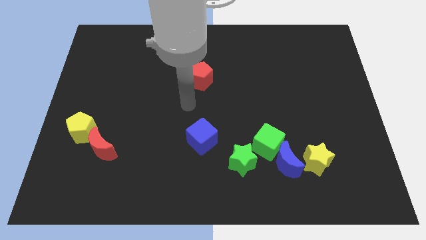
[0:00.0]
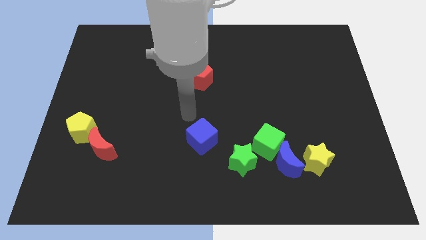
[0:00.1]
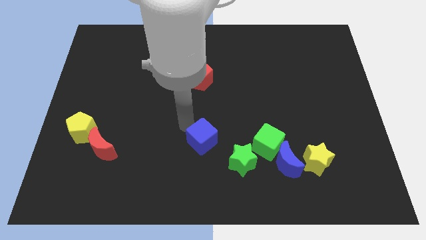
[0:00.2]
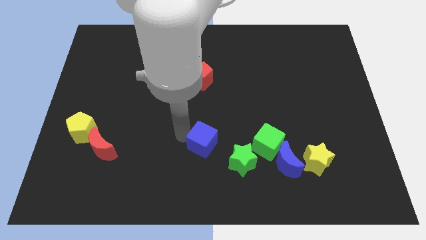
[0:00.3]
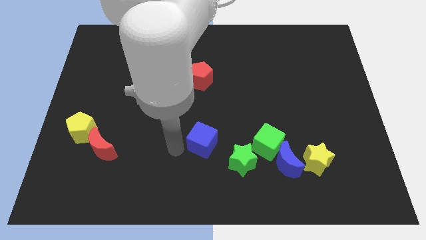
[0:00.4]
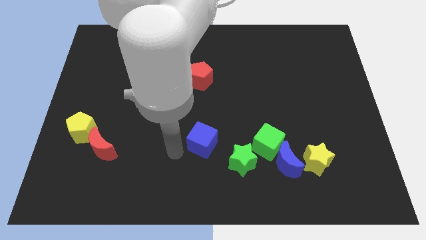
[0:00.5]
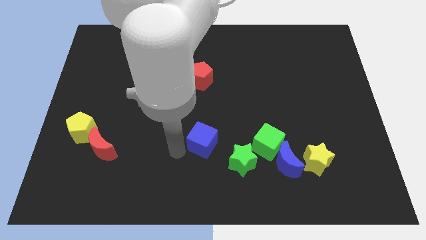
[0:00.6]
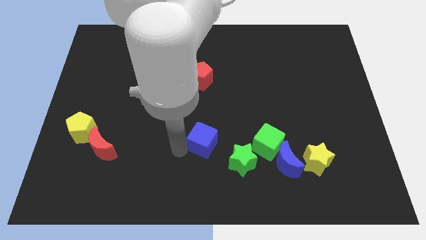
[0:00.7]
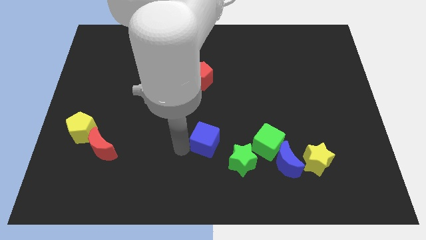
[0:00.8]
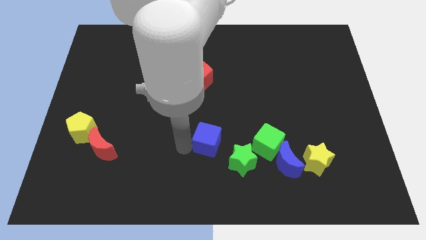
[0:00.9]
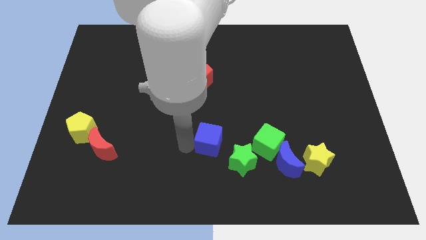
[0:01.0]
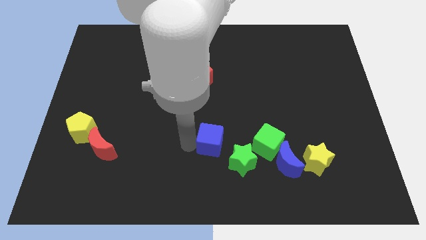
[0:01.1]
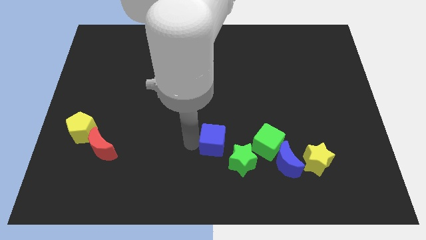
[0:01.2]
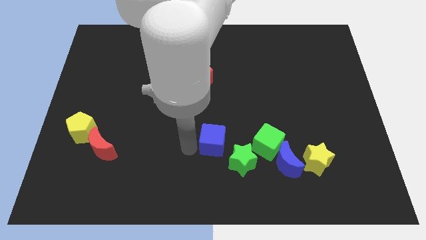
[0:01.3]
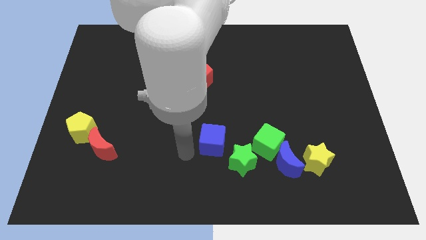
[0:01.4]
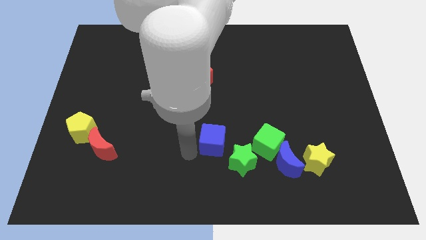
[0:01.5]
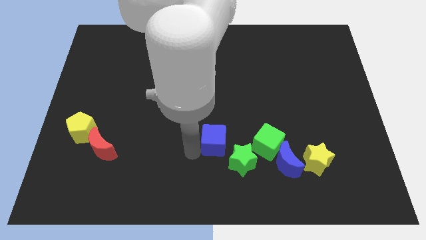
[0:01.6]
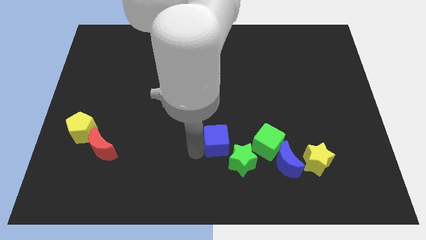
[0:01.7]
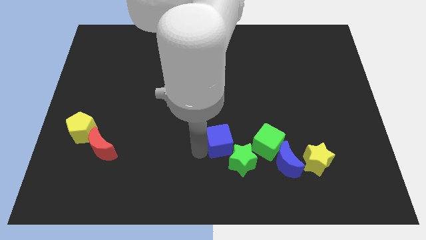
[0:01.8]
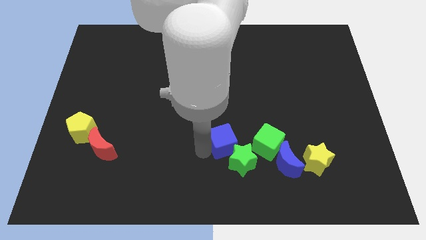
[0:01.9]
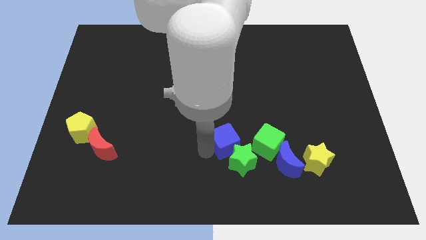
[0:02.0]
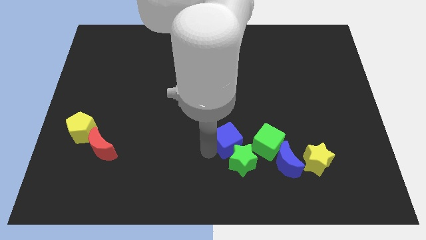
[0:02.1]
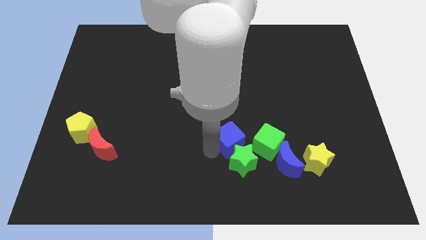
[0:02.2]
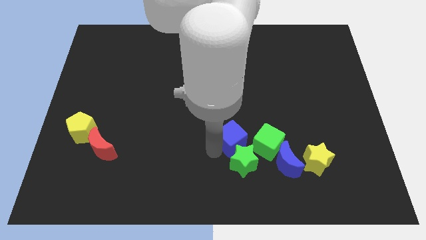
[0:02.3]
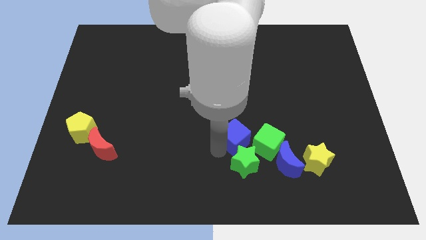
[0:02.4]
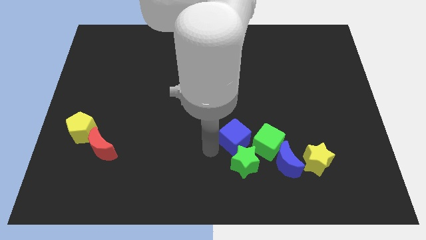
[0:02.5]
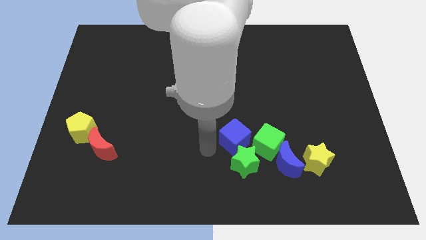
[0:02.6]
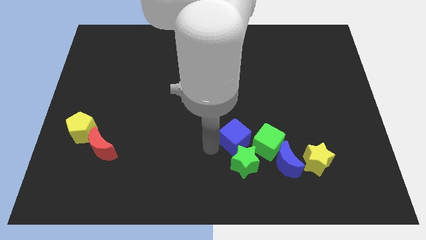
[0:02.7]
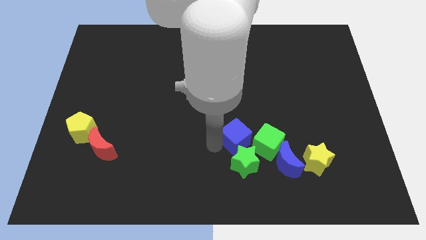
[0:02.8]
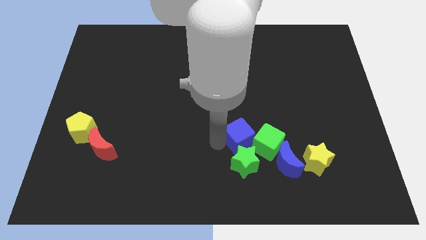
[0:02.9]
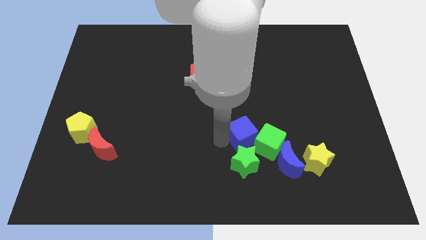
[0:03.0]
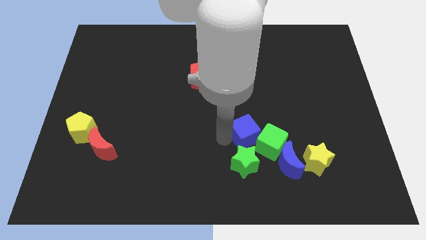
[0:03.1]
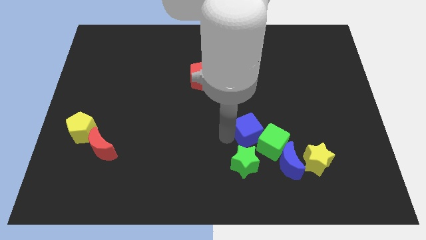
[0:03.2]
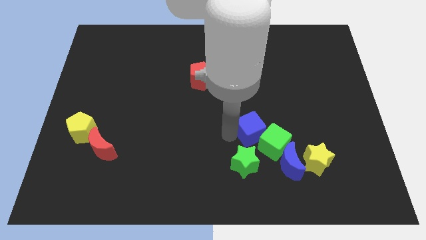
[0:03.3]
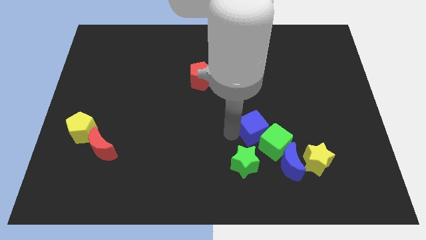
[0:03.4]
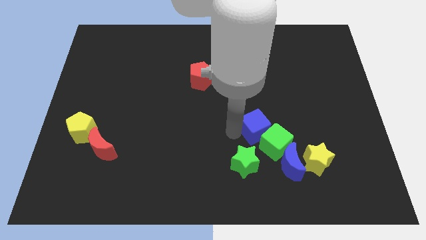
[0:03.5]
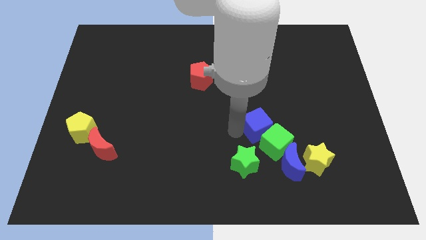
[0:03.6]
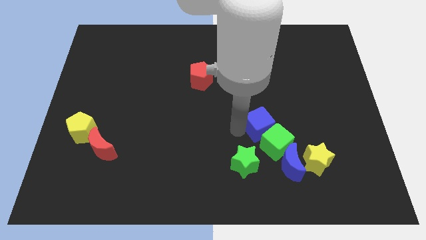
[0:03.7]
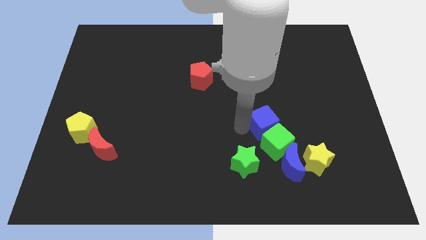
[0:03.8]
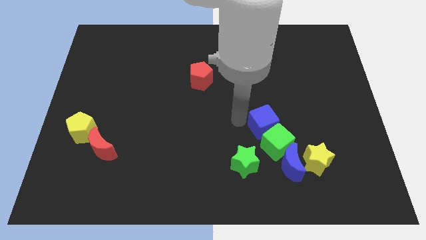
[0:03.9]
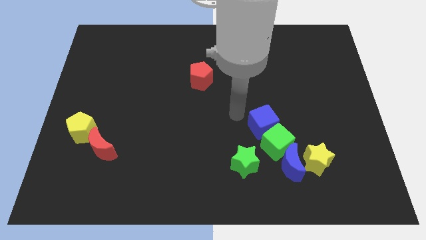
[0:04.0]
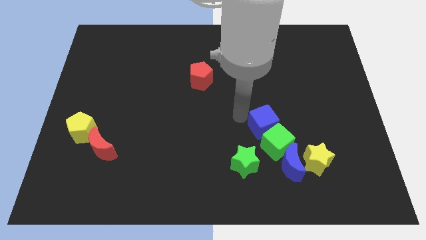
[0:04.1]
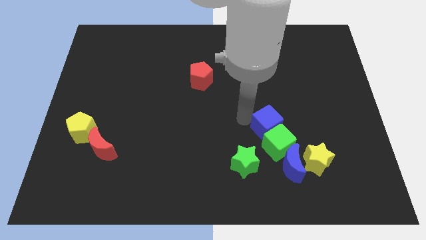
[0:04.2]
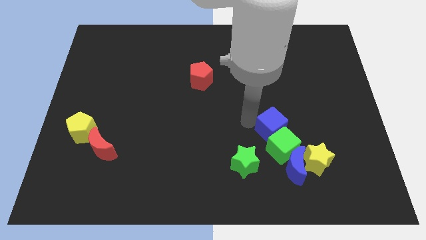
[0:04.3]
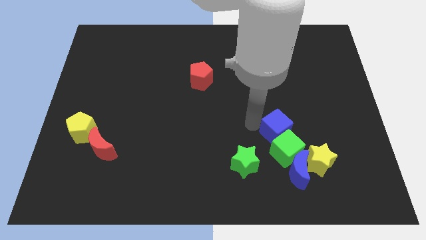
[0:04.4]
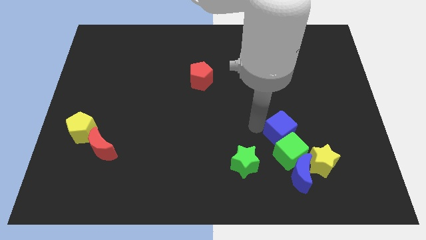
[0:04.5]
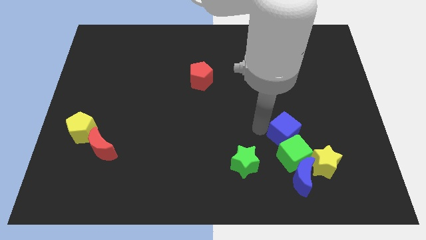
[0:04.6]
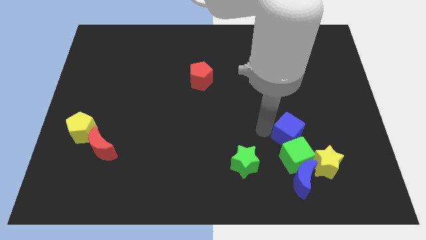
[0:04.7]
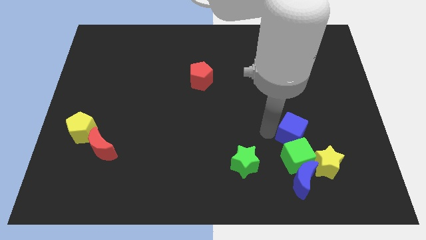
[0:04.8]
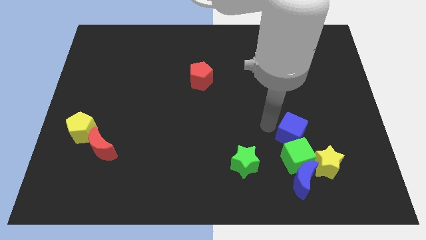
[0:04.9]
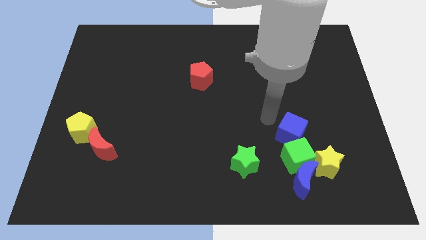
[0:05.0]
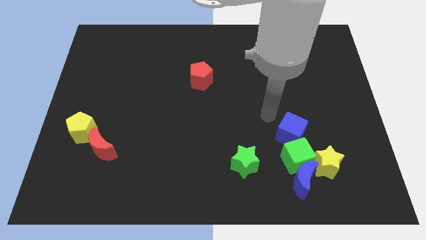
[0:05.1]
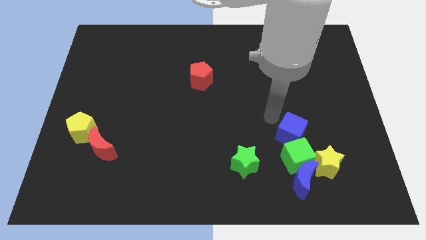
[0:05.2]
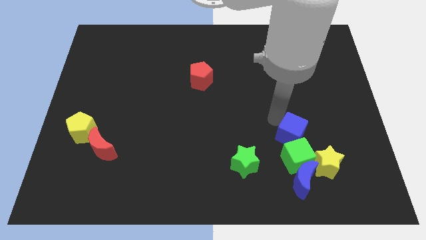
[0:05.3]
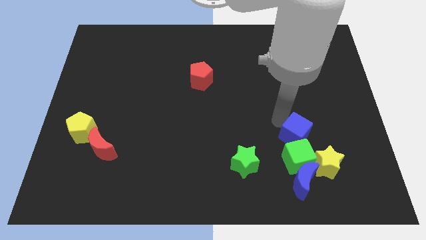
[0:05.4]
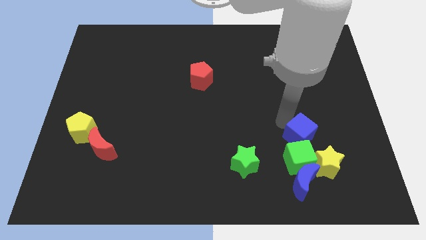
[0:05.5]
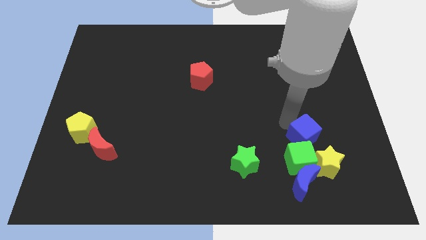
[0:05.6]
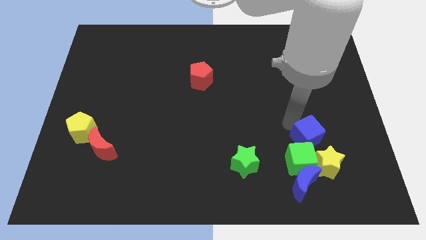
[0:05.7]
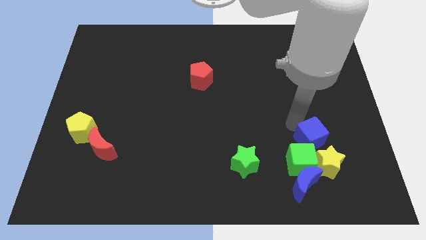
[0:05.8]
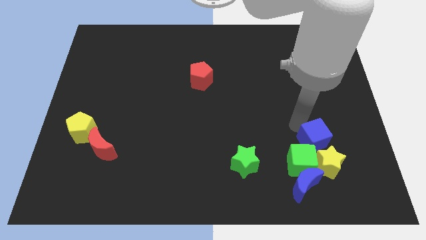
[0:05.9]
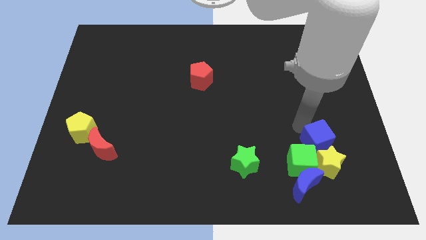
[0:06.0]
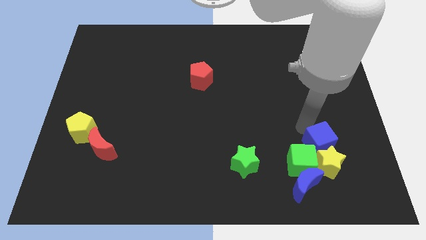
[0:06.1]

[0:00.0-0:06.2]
slide the blue cube diagonally up and to the right of the blue moon

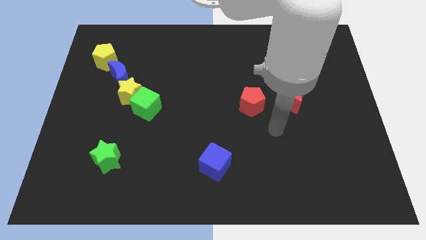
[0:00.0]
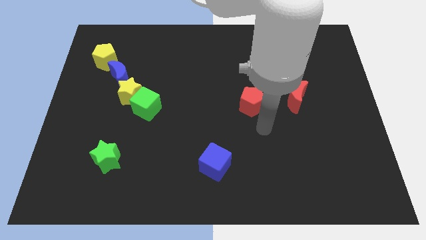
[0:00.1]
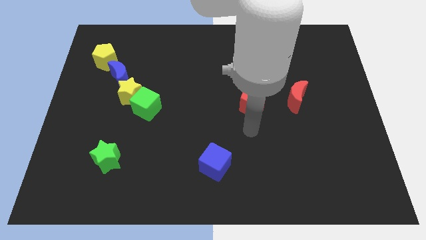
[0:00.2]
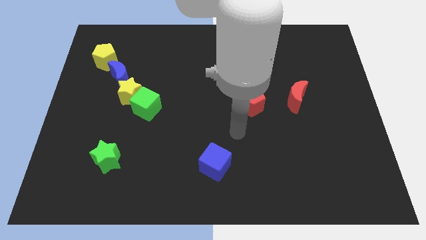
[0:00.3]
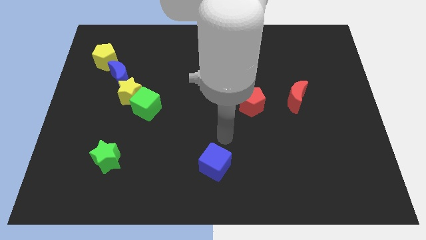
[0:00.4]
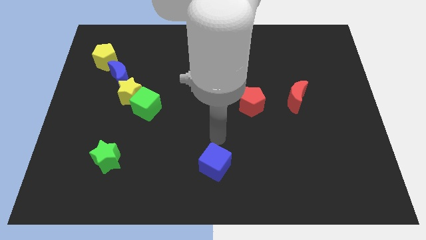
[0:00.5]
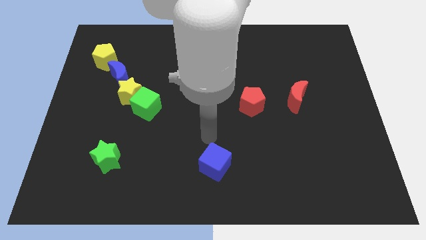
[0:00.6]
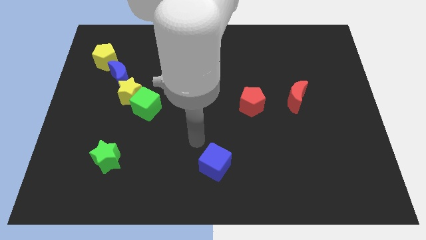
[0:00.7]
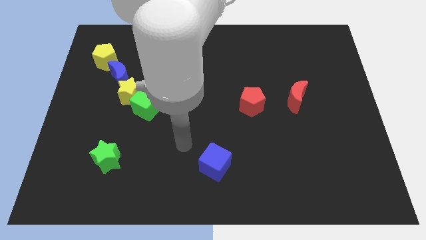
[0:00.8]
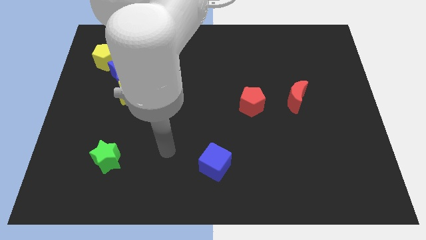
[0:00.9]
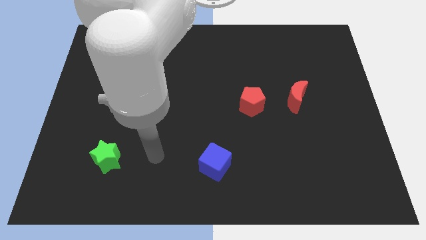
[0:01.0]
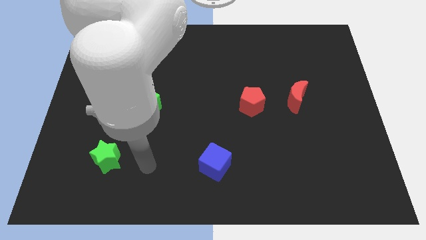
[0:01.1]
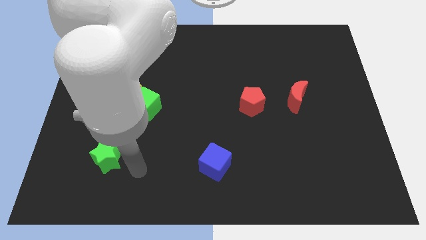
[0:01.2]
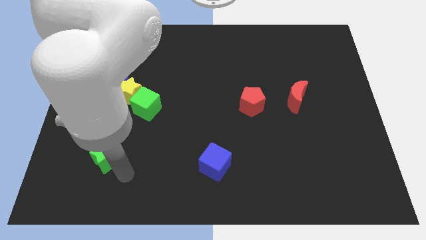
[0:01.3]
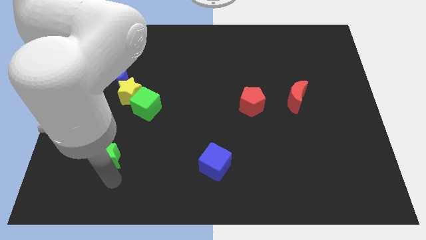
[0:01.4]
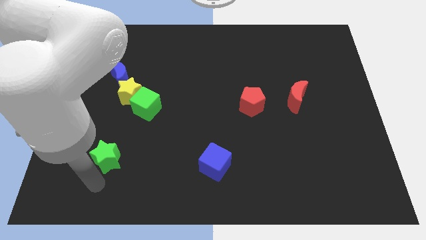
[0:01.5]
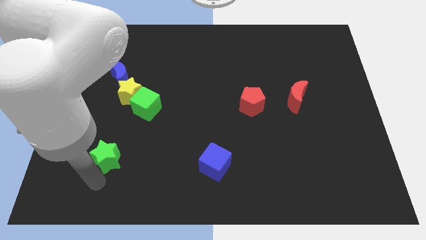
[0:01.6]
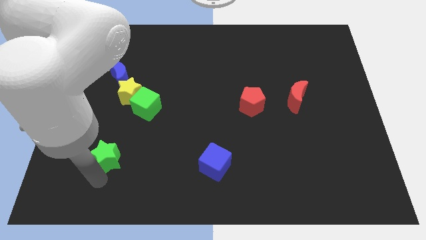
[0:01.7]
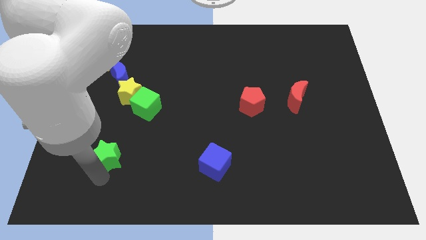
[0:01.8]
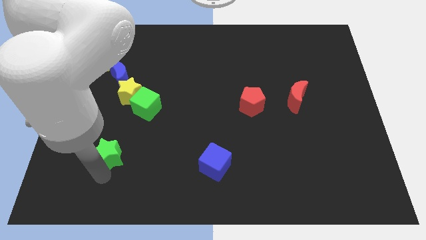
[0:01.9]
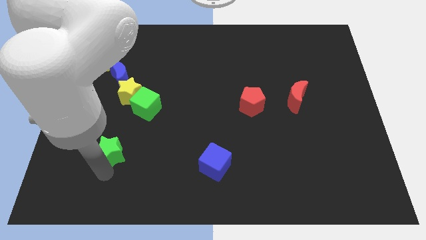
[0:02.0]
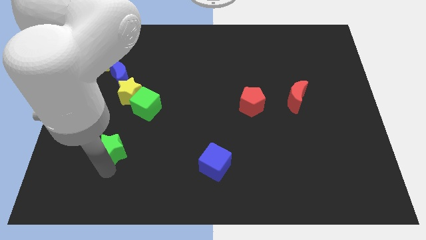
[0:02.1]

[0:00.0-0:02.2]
slide the green star to the bottom side of the yellow star
